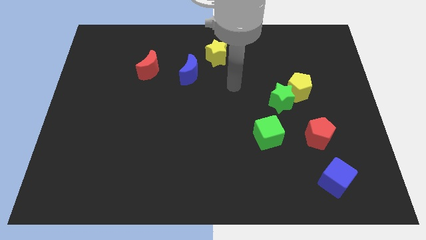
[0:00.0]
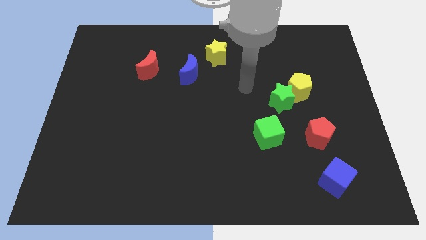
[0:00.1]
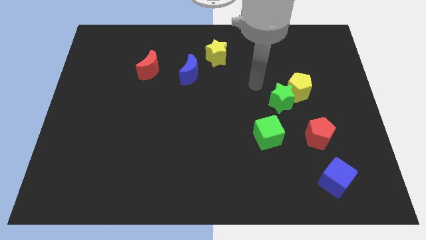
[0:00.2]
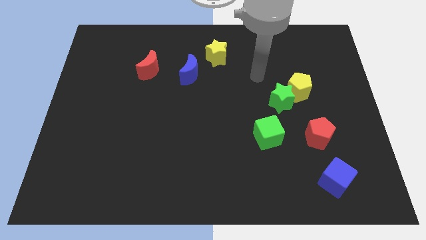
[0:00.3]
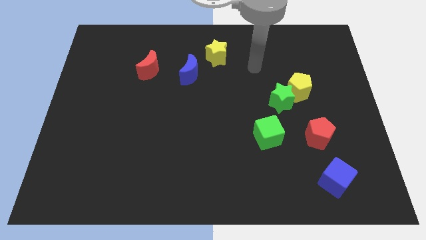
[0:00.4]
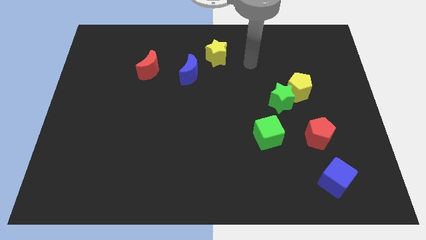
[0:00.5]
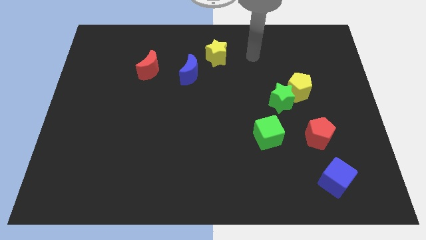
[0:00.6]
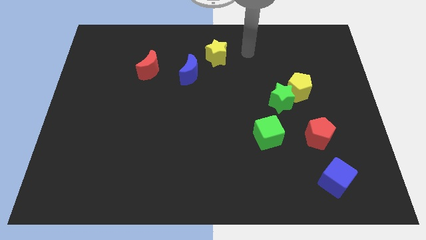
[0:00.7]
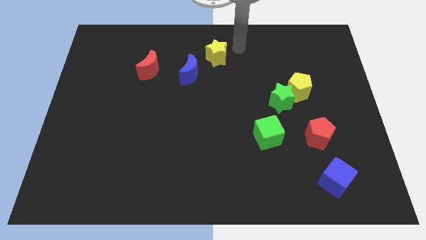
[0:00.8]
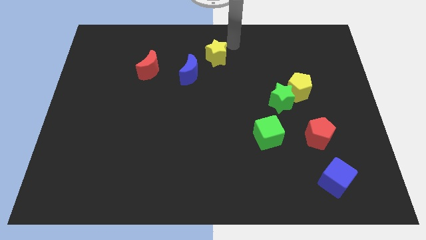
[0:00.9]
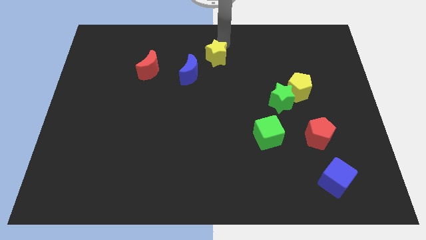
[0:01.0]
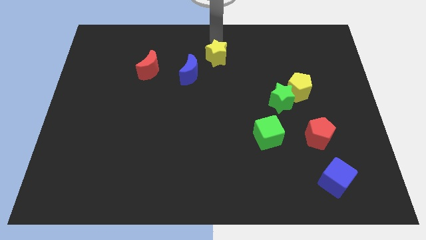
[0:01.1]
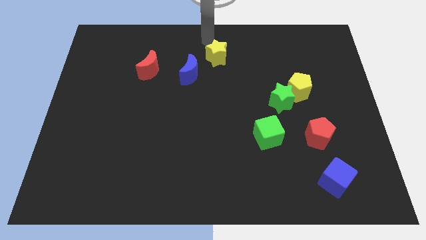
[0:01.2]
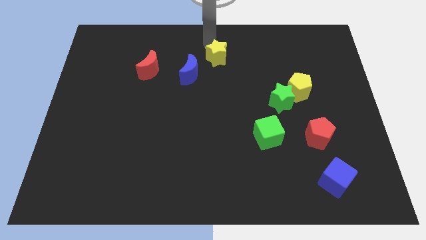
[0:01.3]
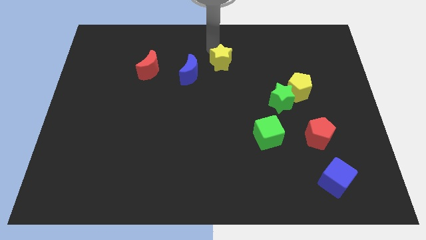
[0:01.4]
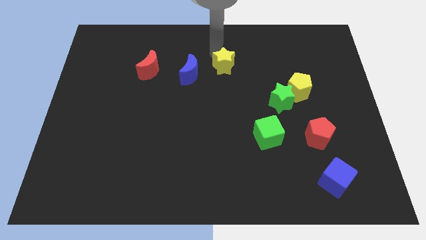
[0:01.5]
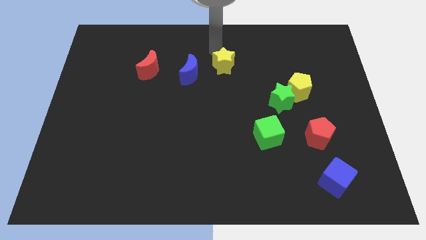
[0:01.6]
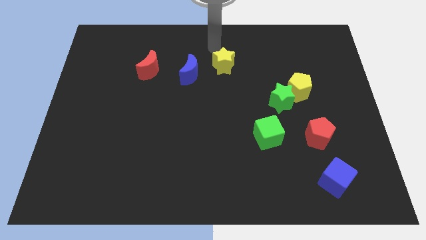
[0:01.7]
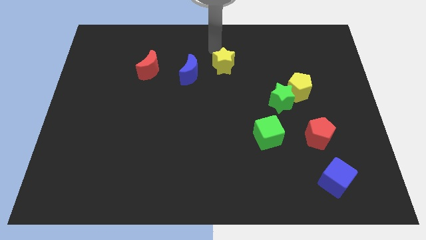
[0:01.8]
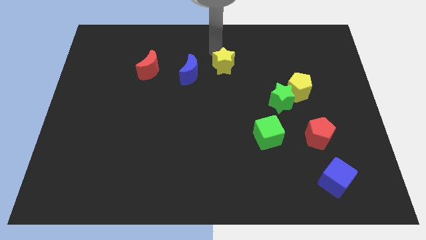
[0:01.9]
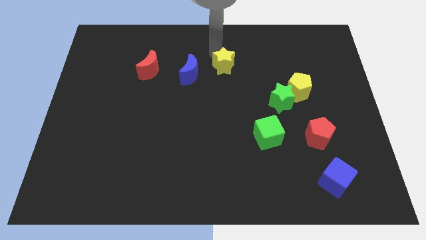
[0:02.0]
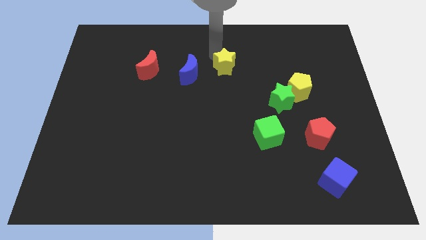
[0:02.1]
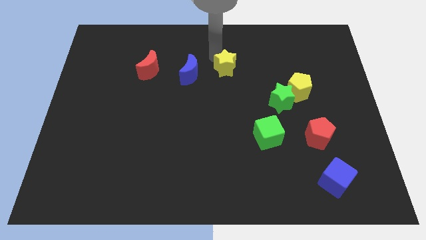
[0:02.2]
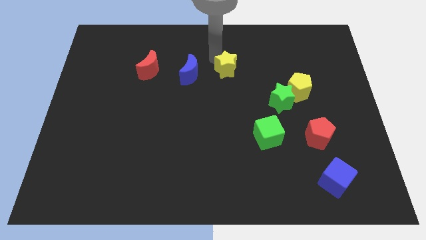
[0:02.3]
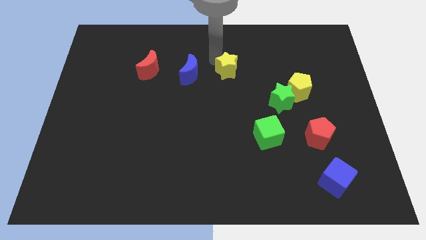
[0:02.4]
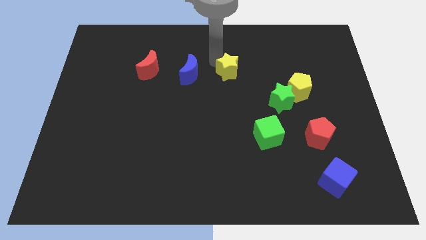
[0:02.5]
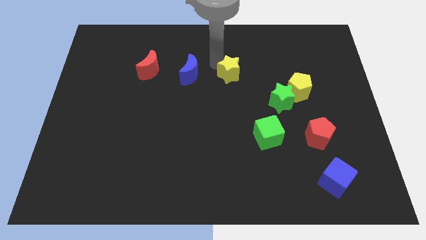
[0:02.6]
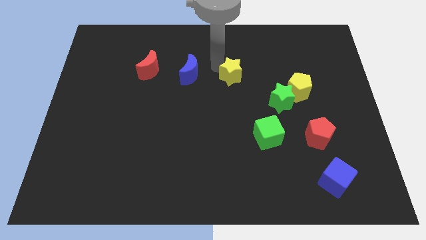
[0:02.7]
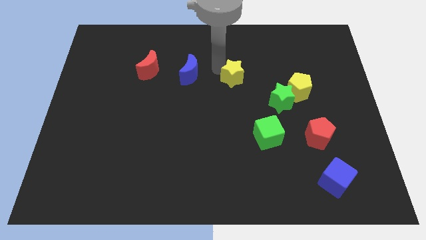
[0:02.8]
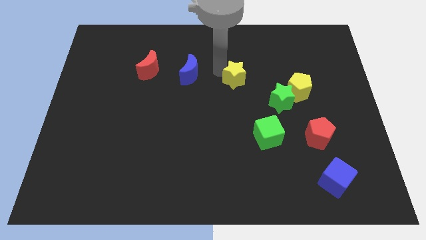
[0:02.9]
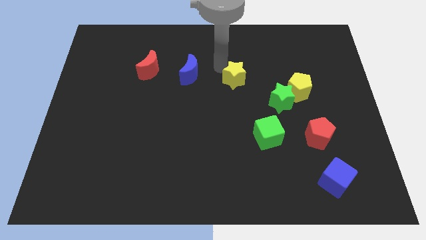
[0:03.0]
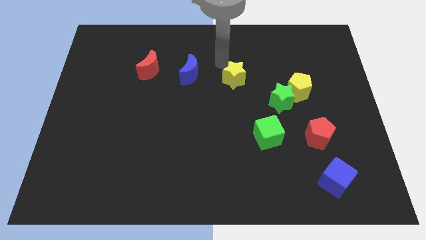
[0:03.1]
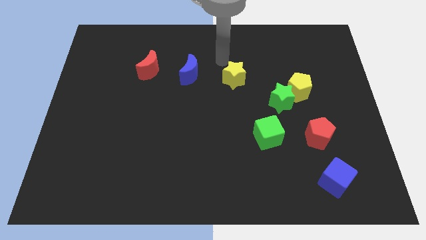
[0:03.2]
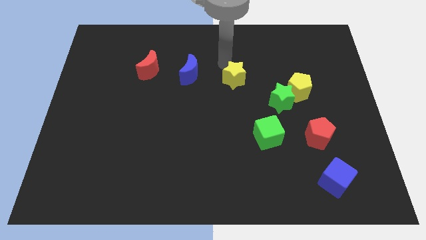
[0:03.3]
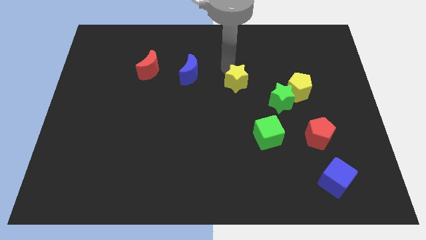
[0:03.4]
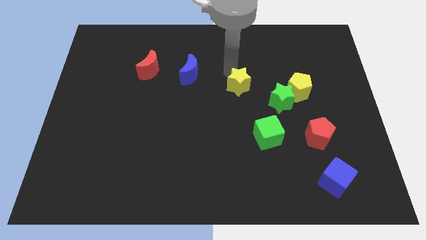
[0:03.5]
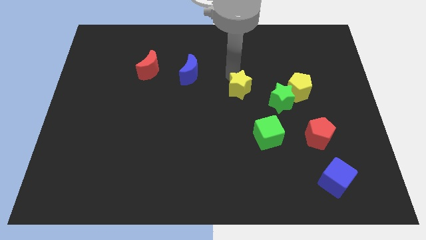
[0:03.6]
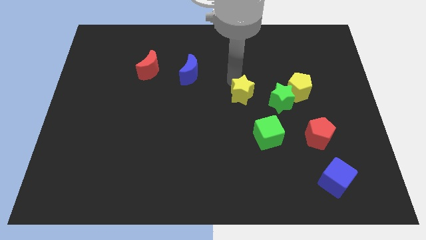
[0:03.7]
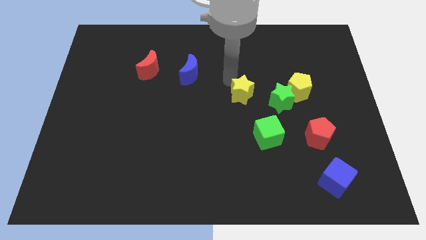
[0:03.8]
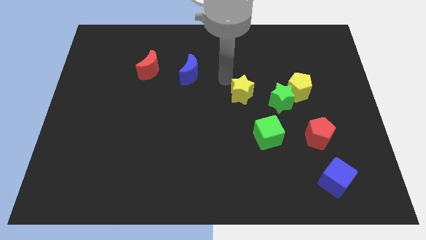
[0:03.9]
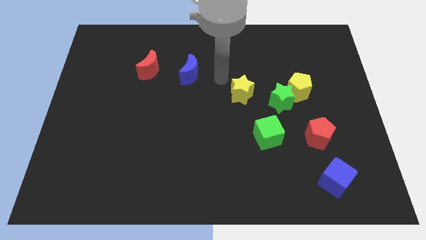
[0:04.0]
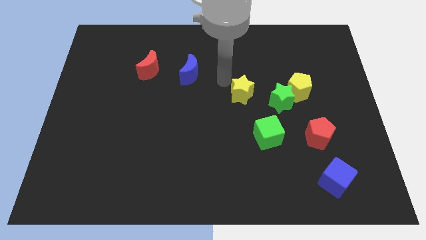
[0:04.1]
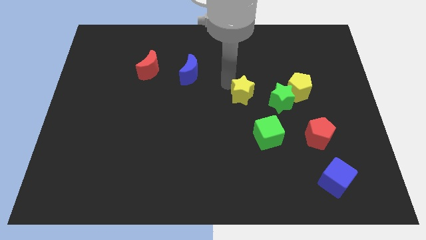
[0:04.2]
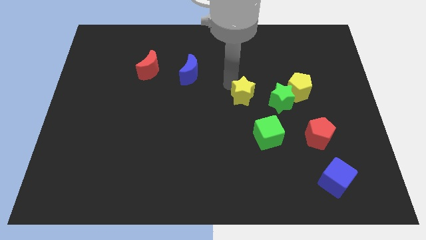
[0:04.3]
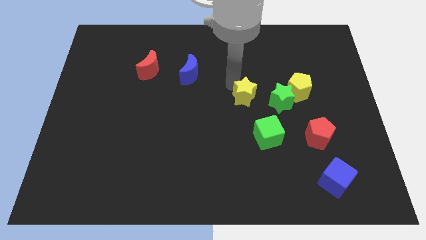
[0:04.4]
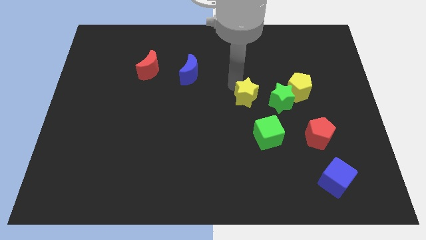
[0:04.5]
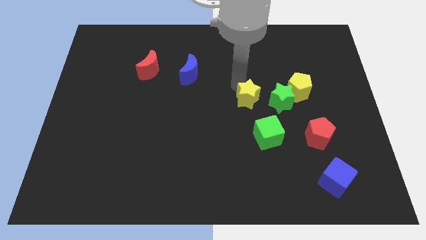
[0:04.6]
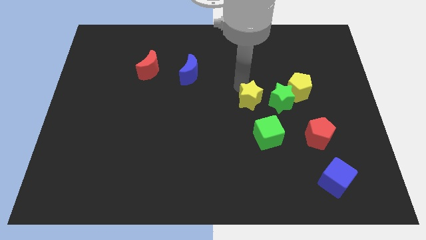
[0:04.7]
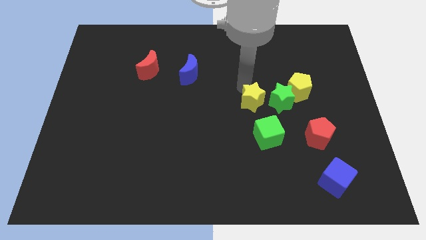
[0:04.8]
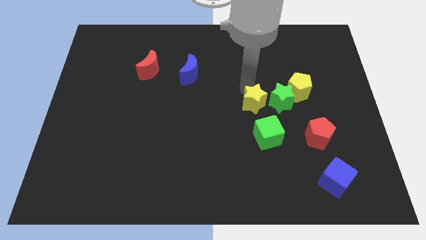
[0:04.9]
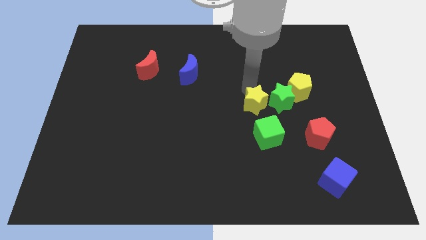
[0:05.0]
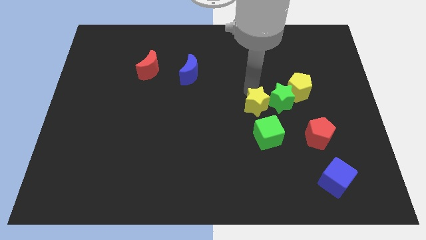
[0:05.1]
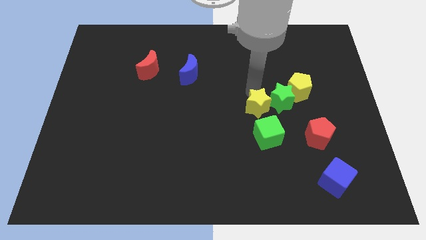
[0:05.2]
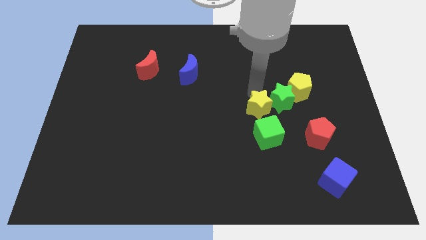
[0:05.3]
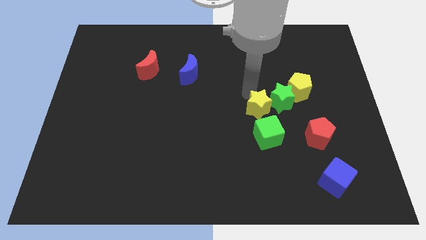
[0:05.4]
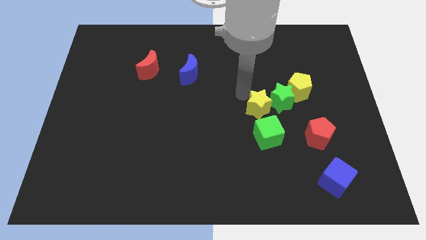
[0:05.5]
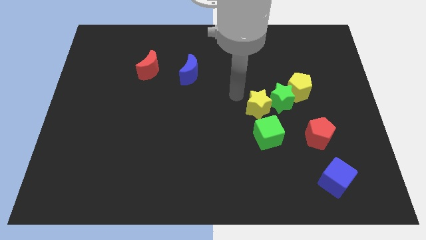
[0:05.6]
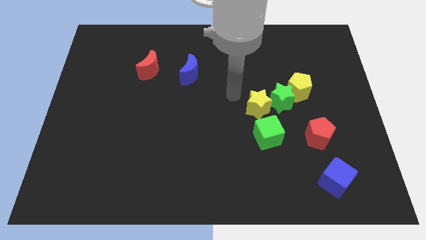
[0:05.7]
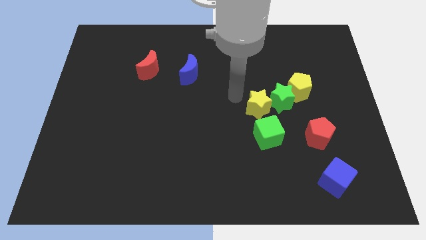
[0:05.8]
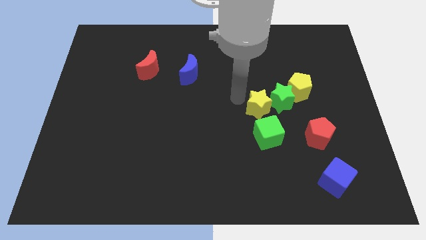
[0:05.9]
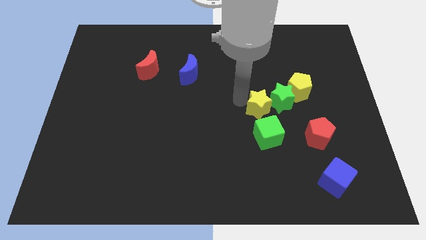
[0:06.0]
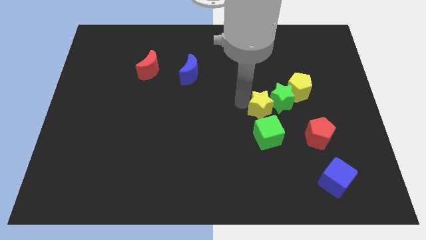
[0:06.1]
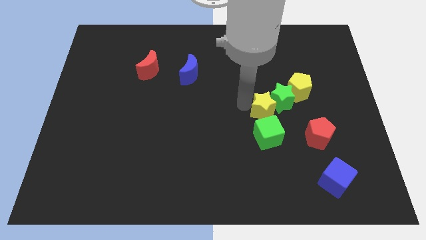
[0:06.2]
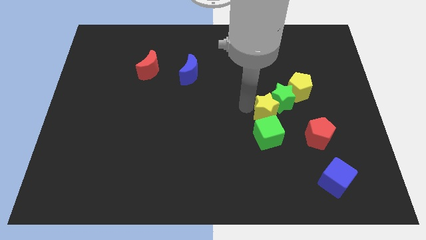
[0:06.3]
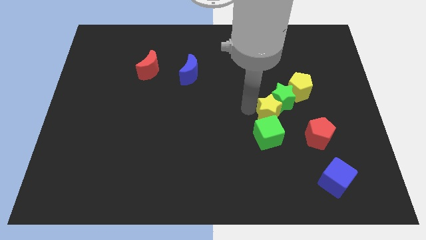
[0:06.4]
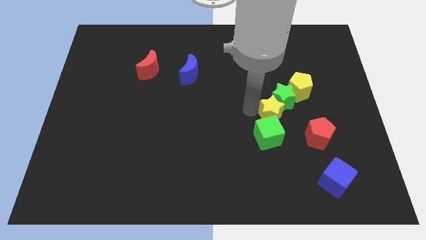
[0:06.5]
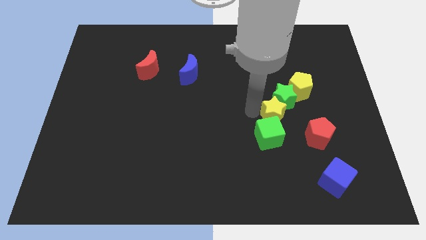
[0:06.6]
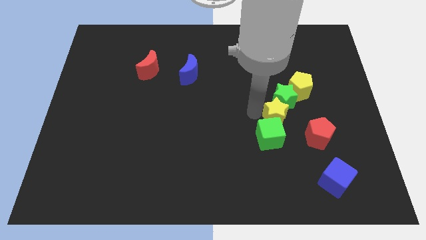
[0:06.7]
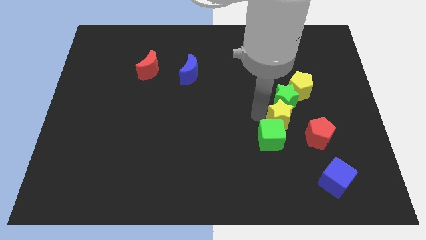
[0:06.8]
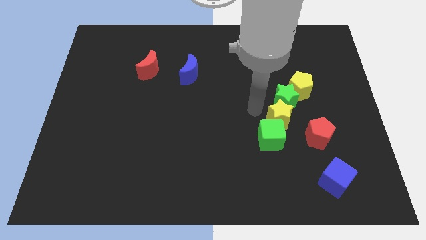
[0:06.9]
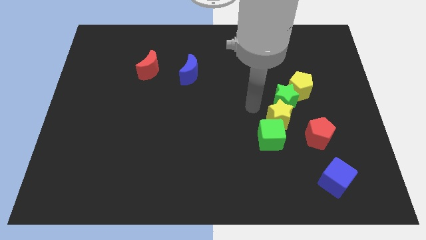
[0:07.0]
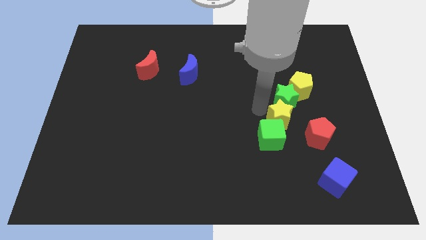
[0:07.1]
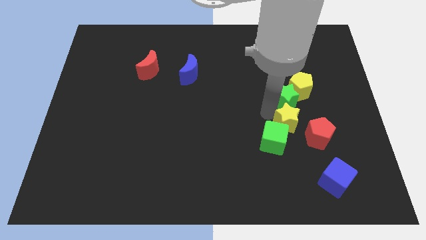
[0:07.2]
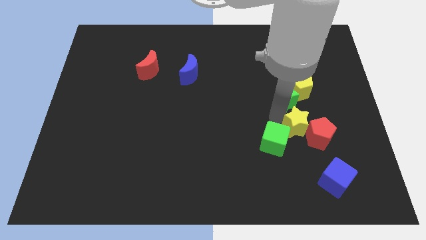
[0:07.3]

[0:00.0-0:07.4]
move the yellow star to the red pentagon
